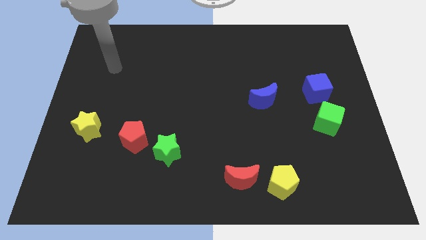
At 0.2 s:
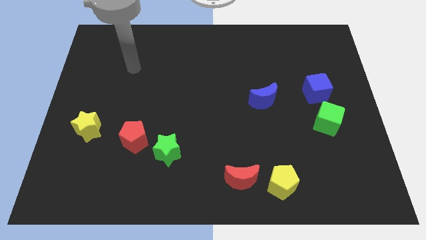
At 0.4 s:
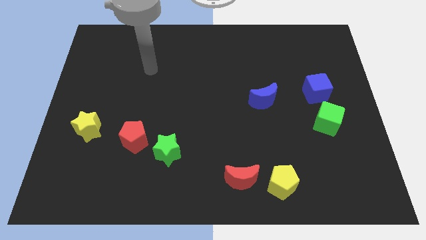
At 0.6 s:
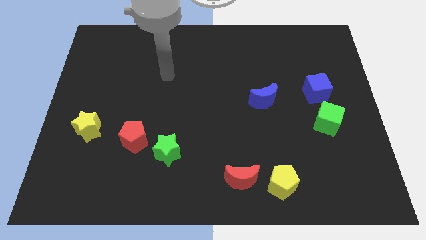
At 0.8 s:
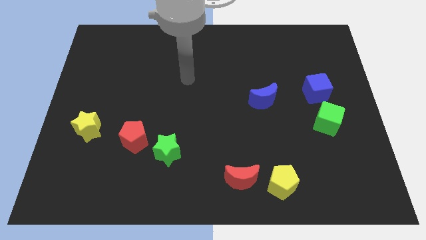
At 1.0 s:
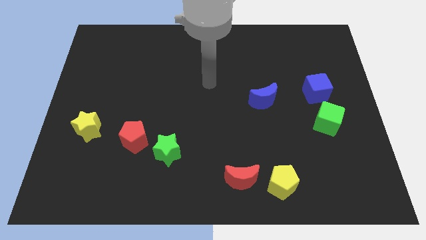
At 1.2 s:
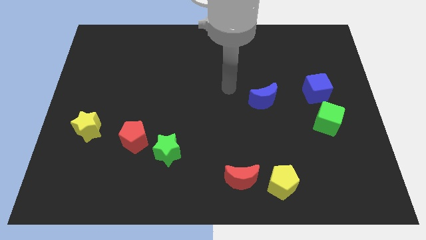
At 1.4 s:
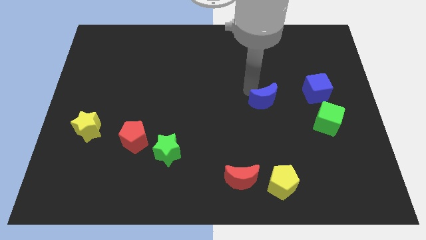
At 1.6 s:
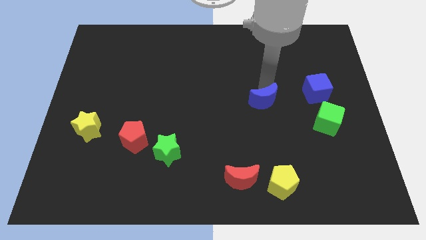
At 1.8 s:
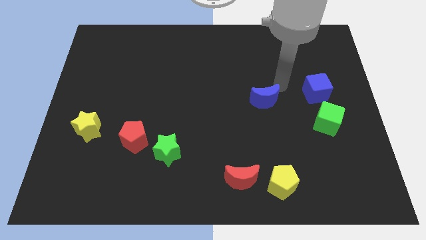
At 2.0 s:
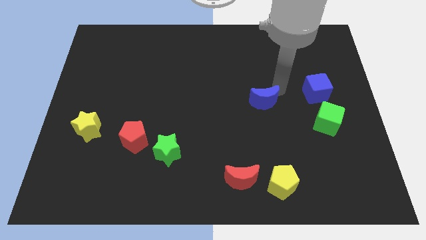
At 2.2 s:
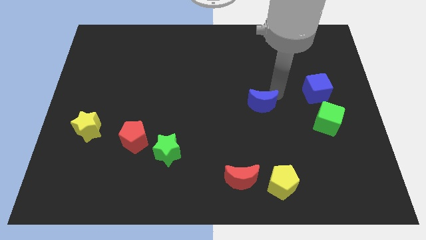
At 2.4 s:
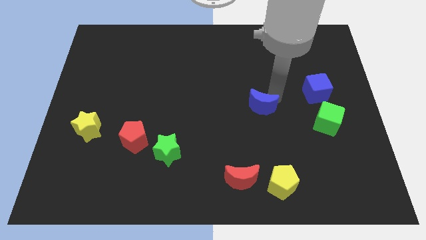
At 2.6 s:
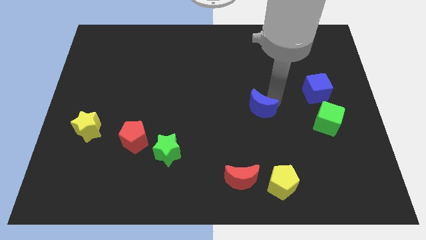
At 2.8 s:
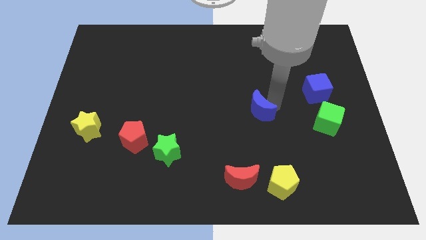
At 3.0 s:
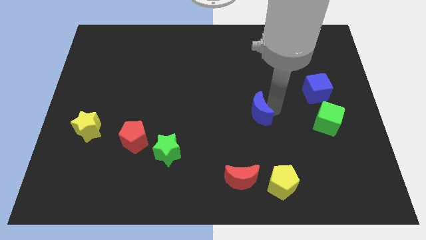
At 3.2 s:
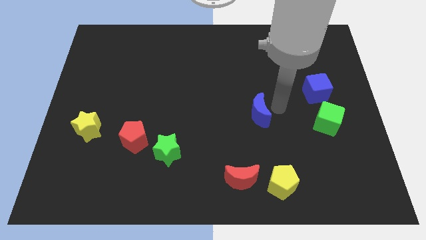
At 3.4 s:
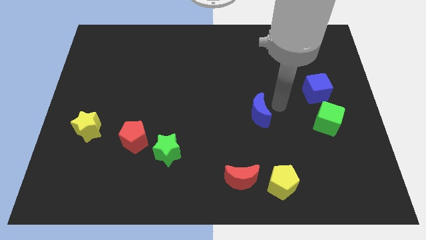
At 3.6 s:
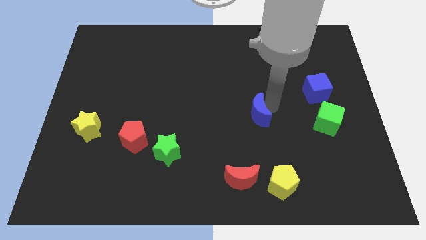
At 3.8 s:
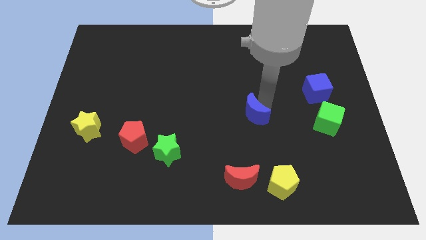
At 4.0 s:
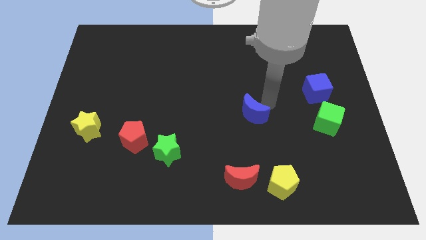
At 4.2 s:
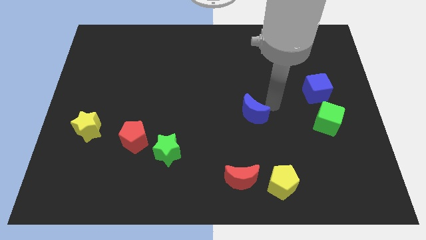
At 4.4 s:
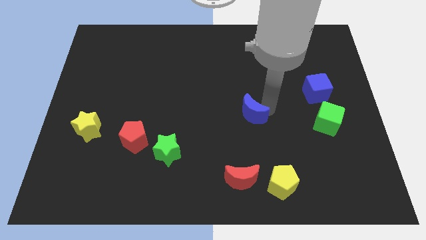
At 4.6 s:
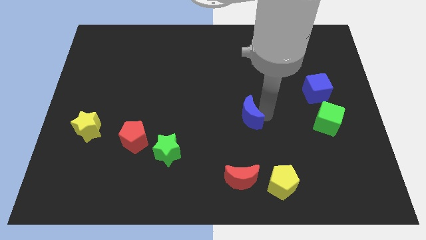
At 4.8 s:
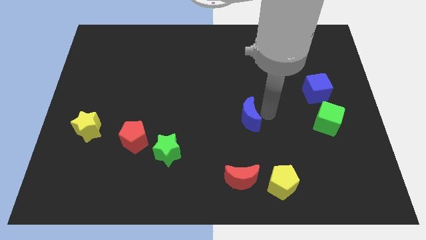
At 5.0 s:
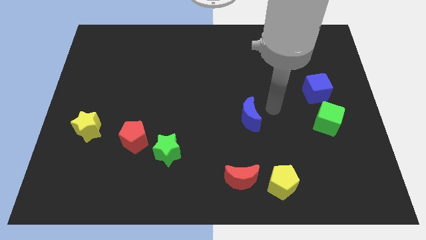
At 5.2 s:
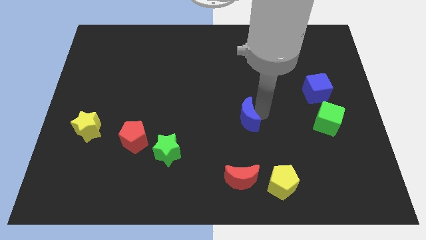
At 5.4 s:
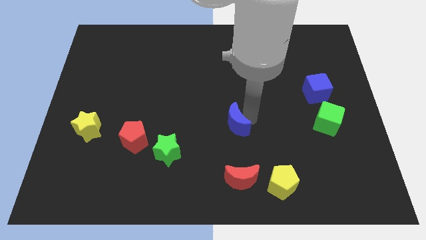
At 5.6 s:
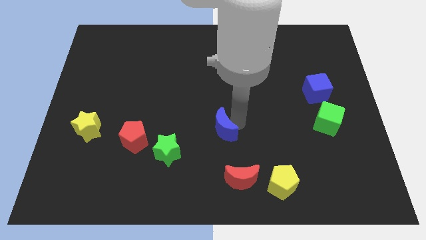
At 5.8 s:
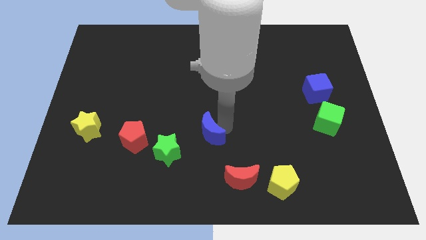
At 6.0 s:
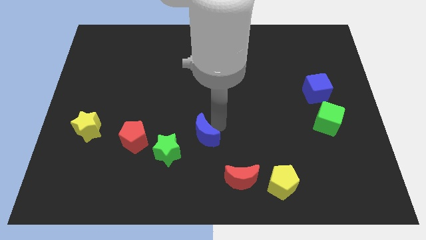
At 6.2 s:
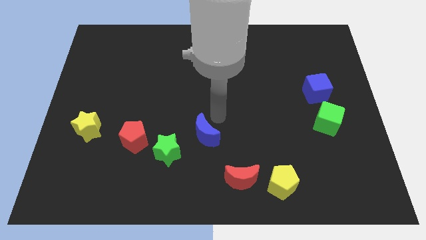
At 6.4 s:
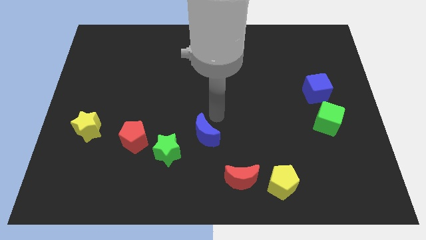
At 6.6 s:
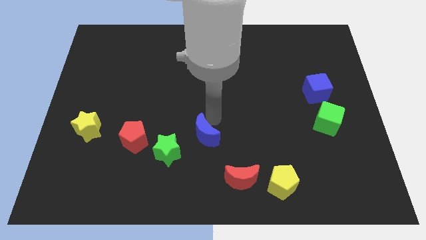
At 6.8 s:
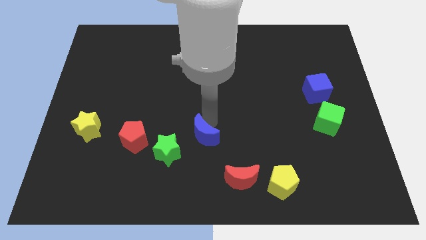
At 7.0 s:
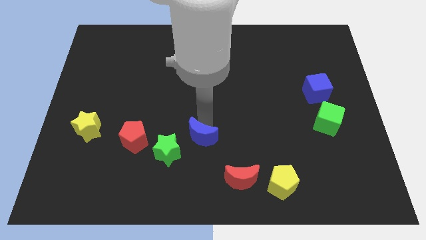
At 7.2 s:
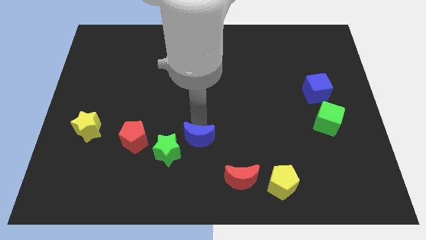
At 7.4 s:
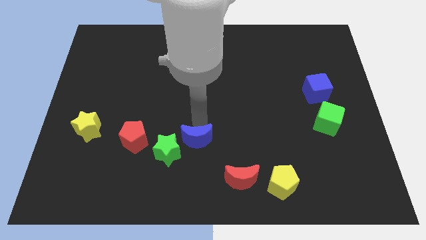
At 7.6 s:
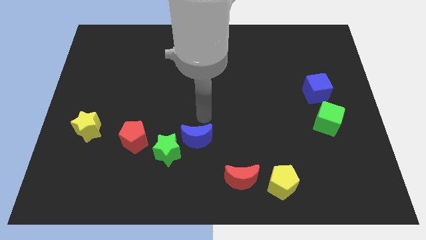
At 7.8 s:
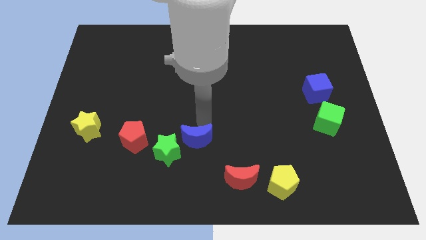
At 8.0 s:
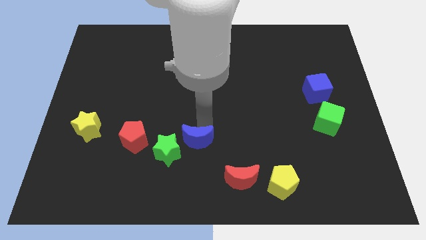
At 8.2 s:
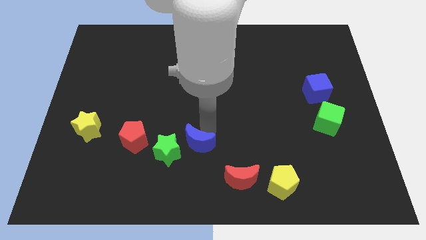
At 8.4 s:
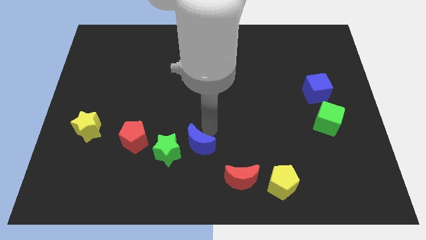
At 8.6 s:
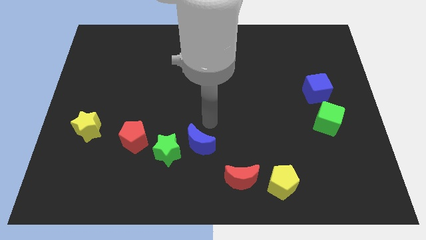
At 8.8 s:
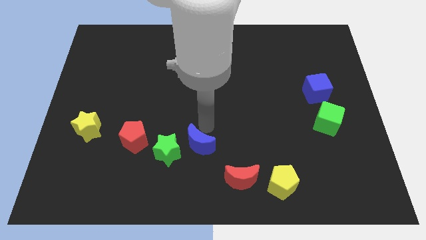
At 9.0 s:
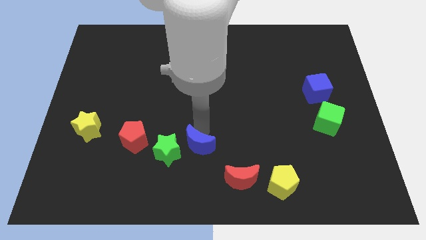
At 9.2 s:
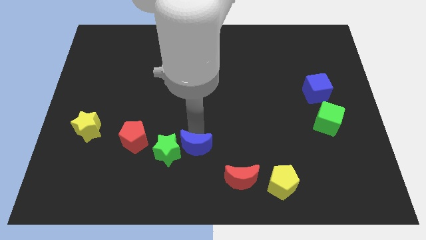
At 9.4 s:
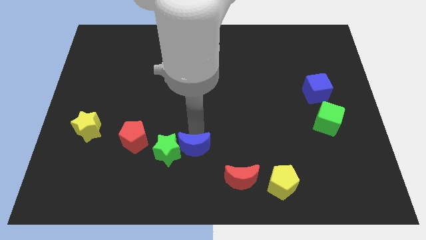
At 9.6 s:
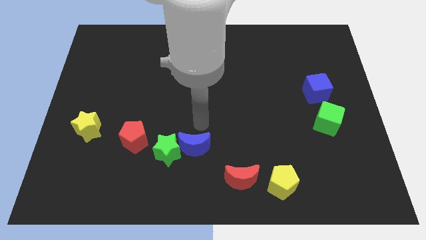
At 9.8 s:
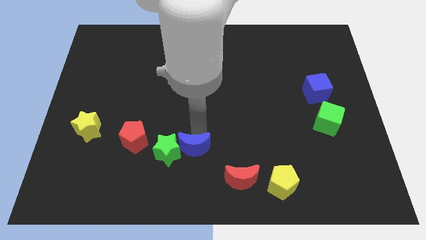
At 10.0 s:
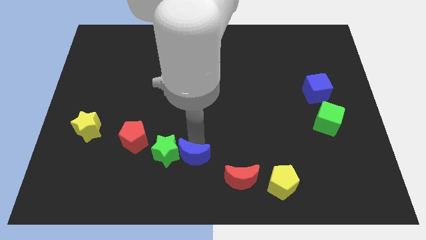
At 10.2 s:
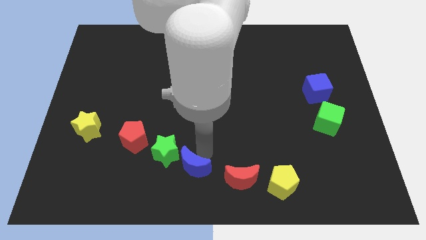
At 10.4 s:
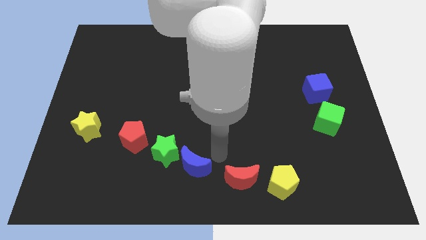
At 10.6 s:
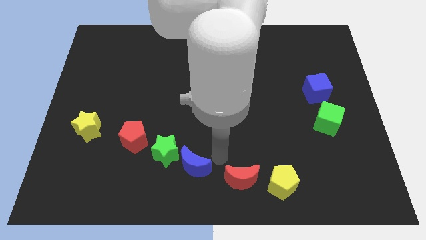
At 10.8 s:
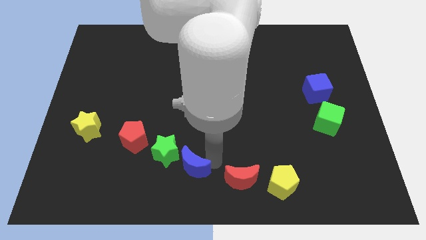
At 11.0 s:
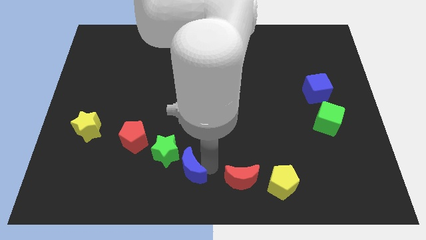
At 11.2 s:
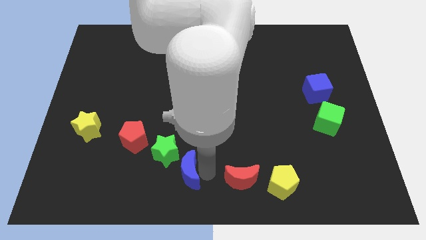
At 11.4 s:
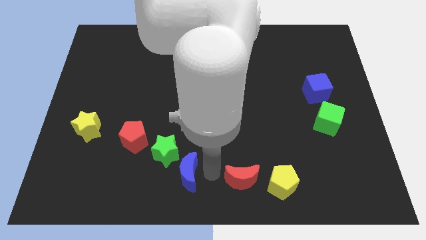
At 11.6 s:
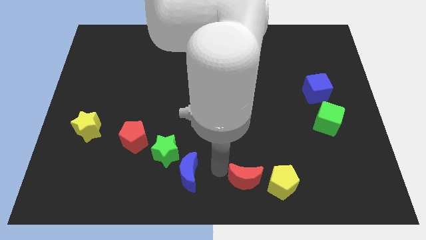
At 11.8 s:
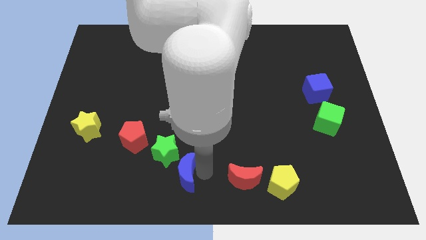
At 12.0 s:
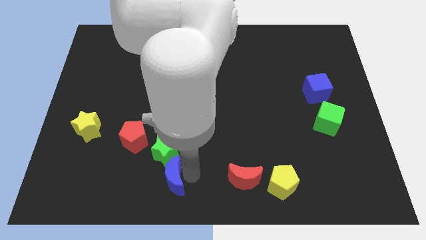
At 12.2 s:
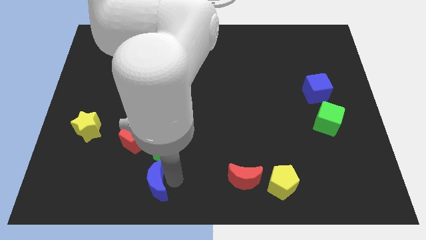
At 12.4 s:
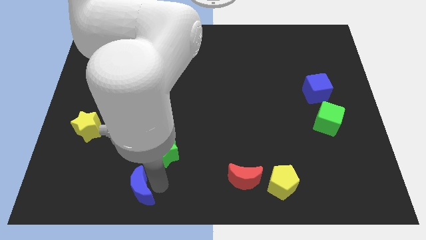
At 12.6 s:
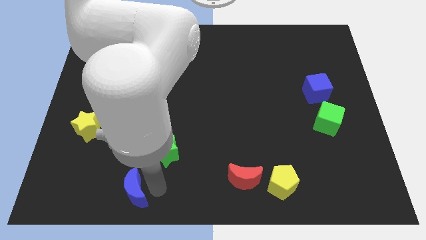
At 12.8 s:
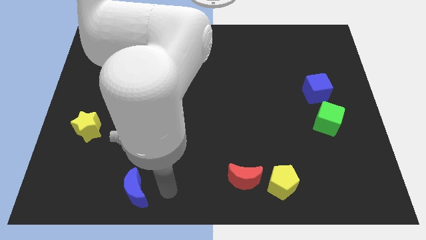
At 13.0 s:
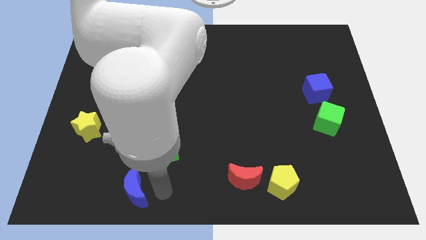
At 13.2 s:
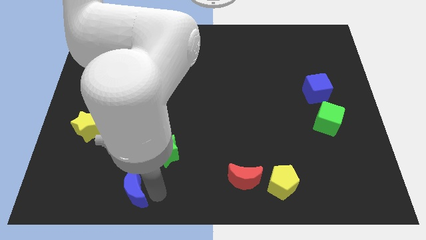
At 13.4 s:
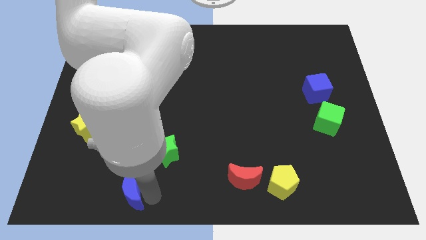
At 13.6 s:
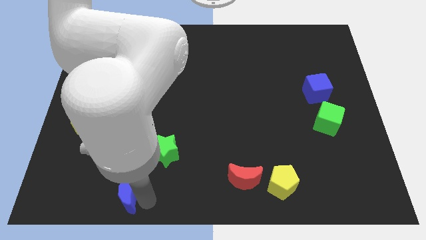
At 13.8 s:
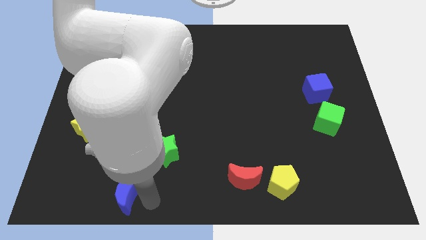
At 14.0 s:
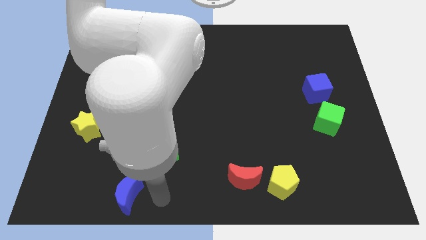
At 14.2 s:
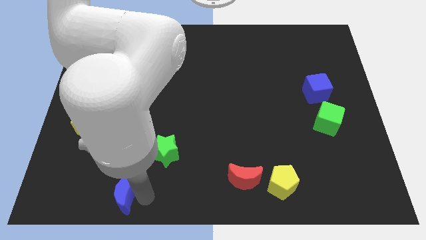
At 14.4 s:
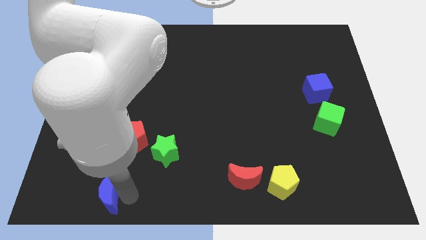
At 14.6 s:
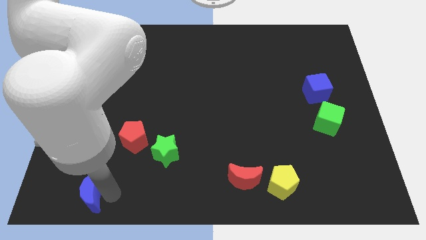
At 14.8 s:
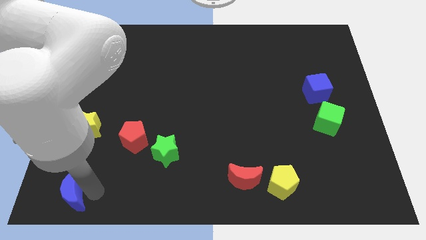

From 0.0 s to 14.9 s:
push the blue moon to the bottom left of the board
